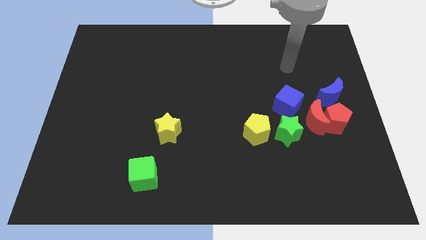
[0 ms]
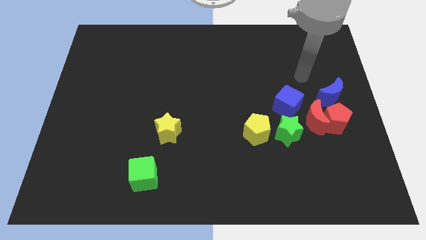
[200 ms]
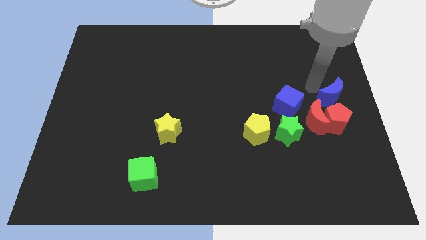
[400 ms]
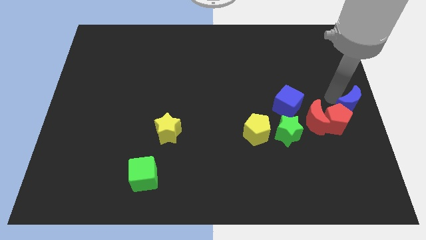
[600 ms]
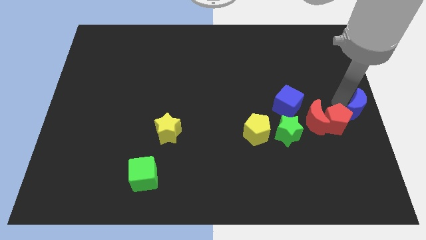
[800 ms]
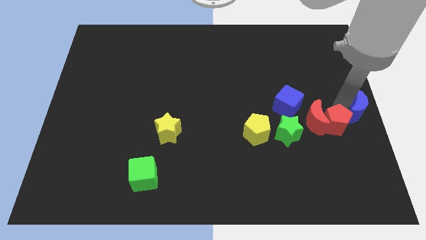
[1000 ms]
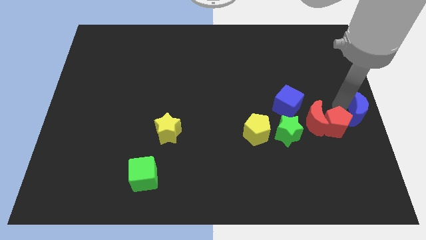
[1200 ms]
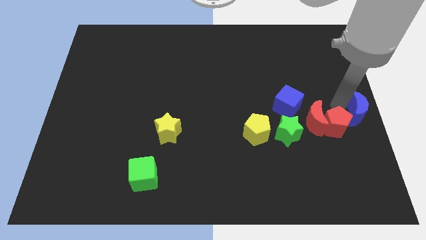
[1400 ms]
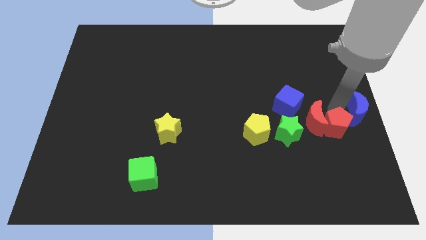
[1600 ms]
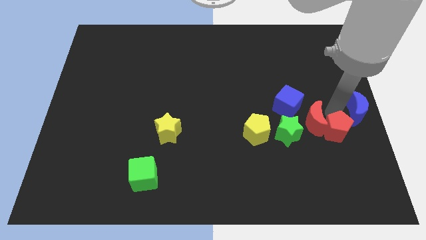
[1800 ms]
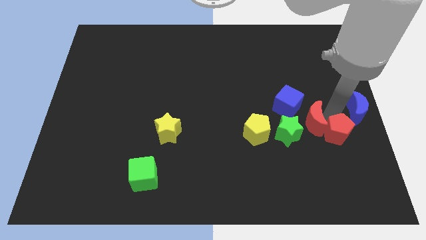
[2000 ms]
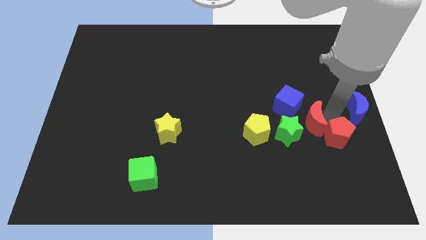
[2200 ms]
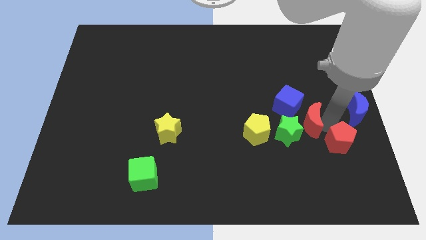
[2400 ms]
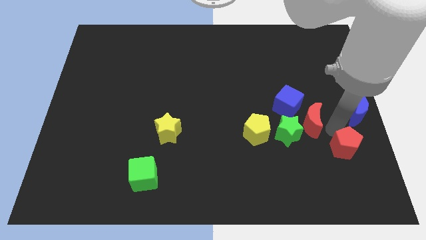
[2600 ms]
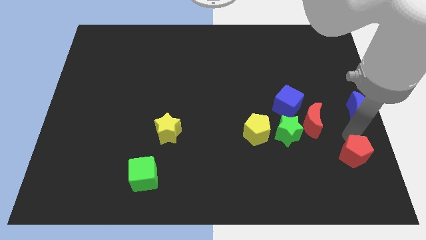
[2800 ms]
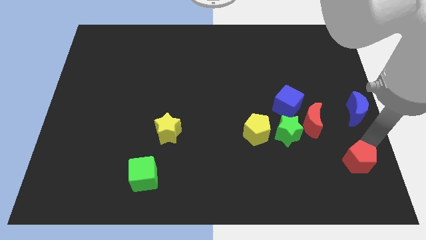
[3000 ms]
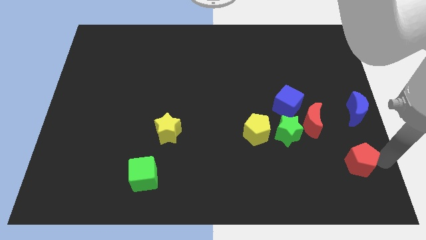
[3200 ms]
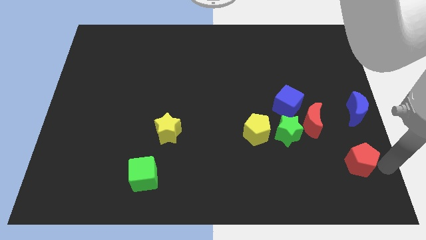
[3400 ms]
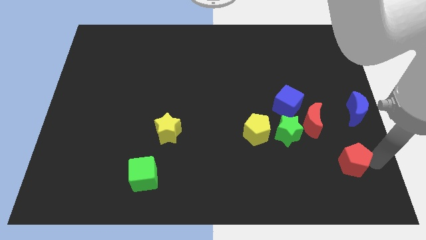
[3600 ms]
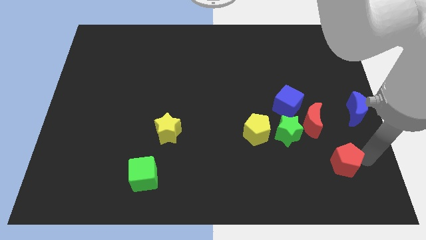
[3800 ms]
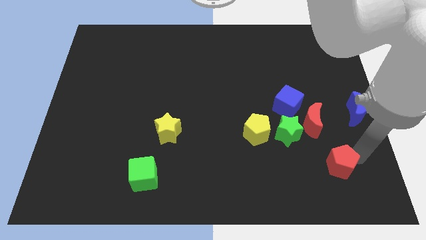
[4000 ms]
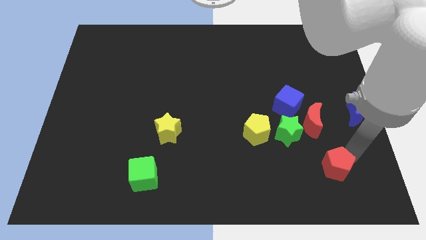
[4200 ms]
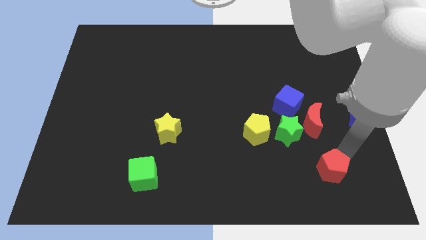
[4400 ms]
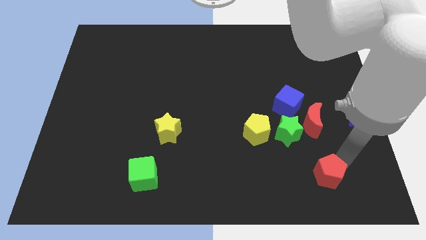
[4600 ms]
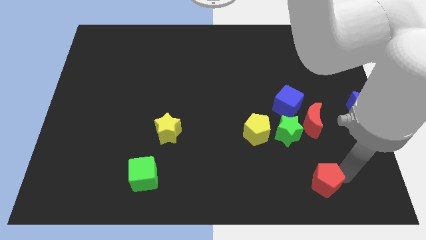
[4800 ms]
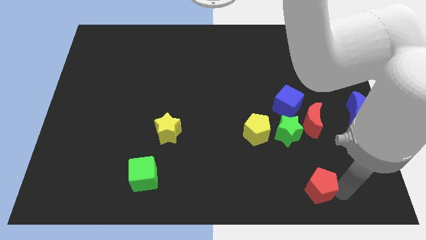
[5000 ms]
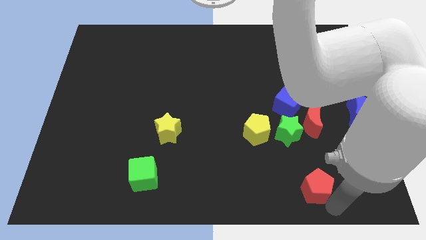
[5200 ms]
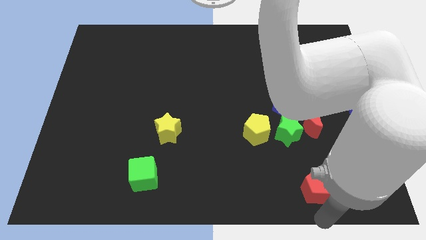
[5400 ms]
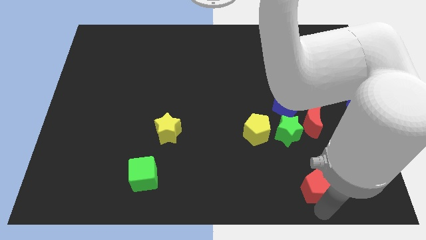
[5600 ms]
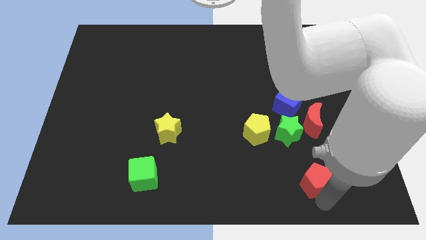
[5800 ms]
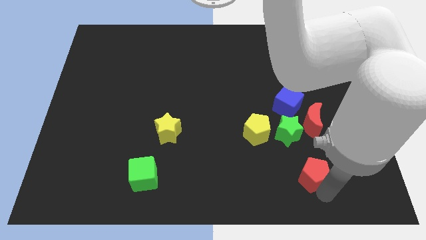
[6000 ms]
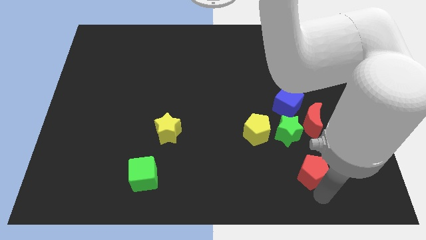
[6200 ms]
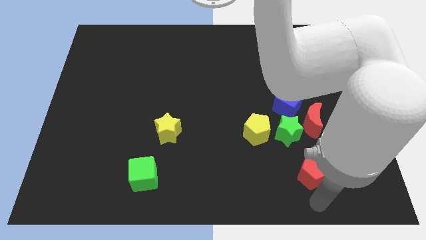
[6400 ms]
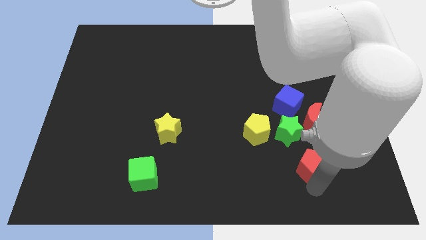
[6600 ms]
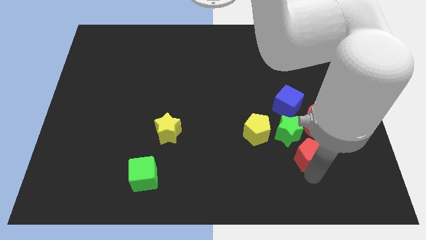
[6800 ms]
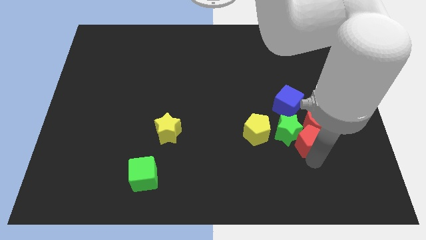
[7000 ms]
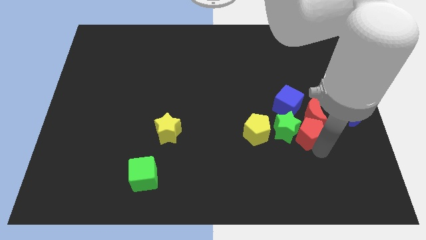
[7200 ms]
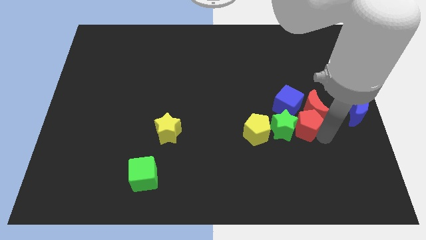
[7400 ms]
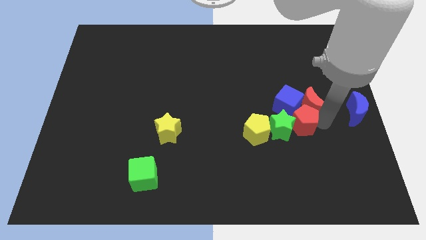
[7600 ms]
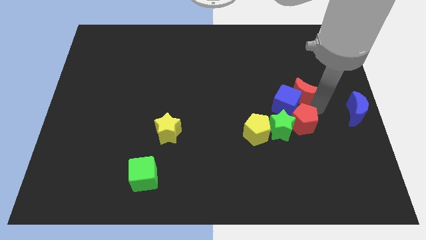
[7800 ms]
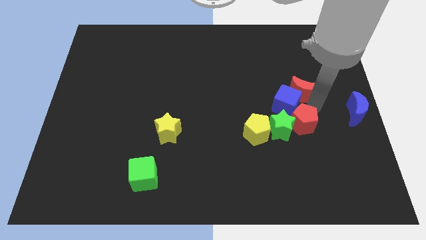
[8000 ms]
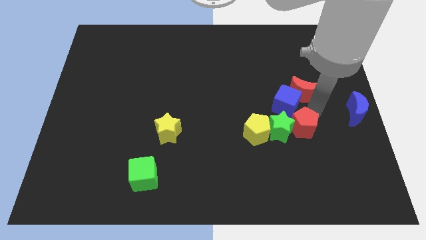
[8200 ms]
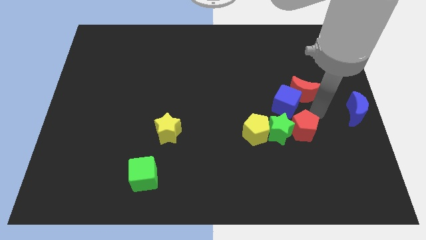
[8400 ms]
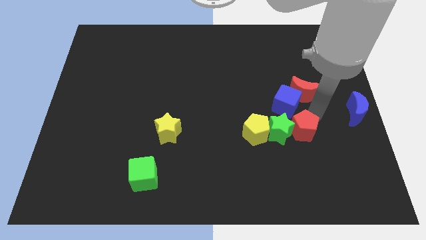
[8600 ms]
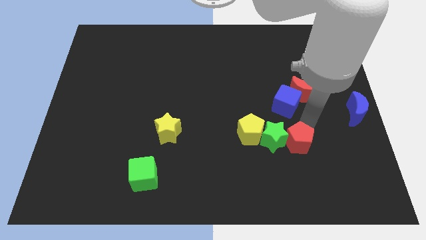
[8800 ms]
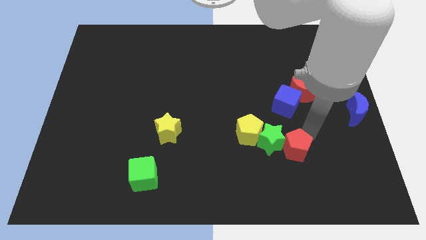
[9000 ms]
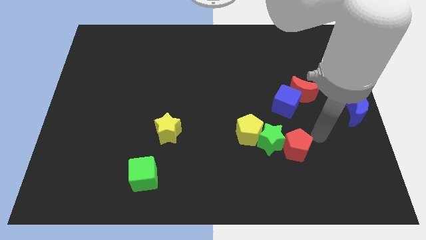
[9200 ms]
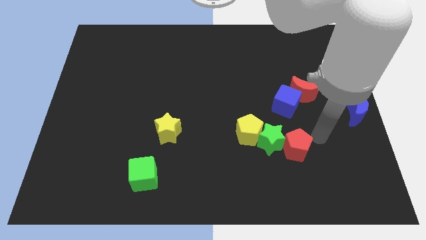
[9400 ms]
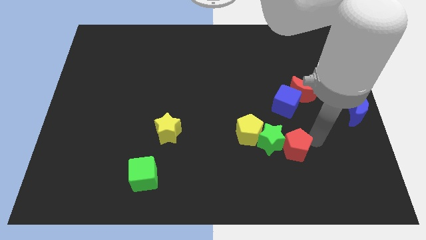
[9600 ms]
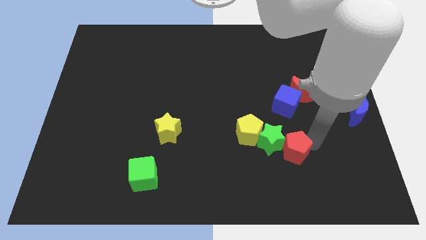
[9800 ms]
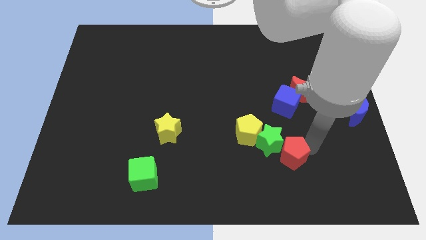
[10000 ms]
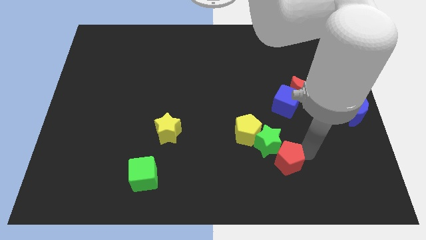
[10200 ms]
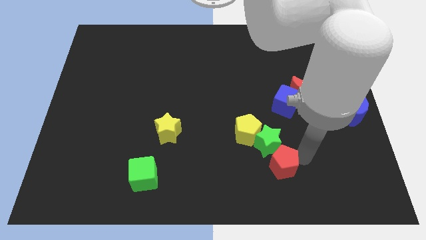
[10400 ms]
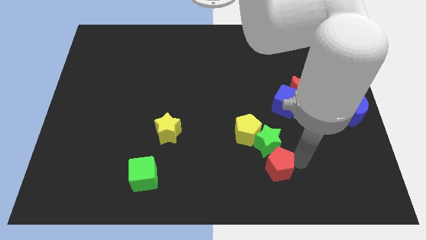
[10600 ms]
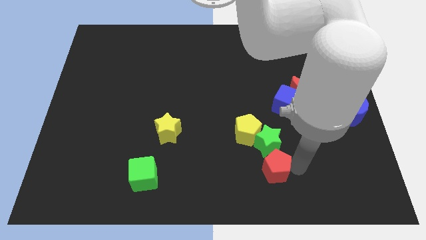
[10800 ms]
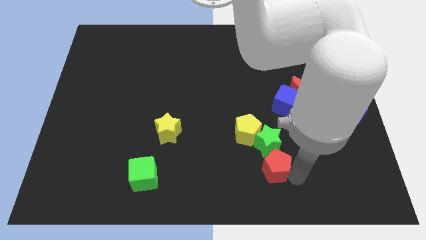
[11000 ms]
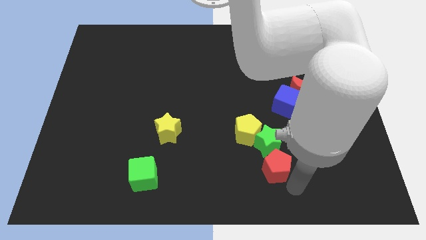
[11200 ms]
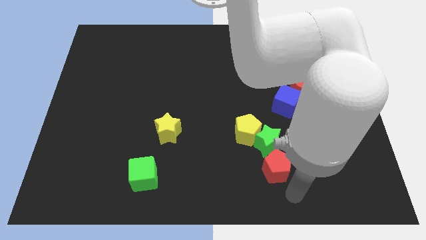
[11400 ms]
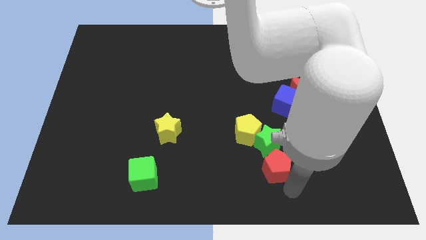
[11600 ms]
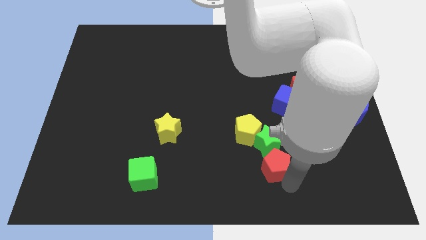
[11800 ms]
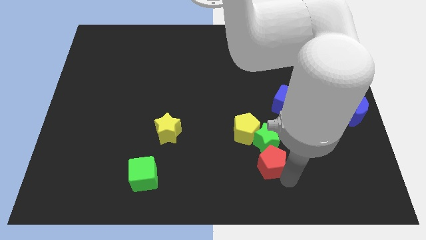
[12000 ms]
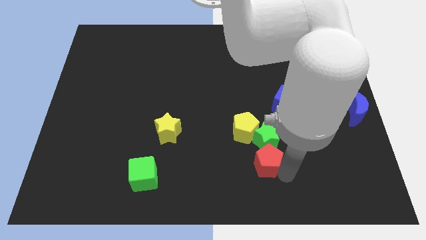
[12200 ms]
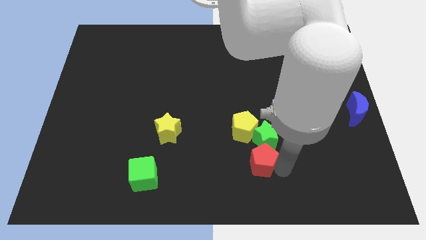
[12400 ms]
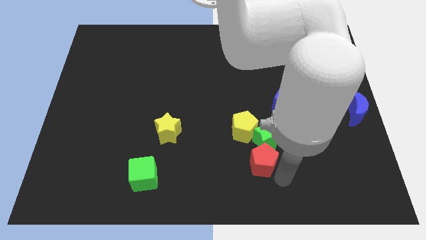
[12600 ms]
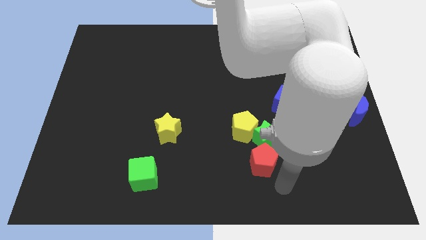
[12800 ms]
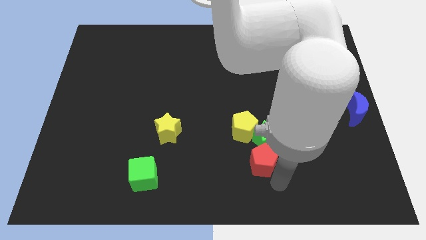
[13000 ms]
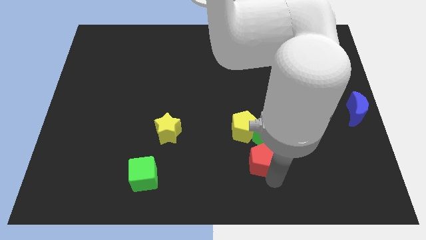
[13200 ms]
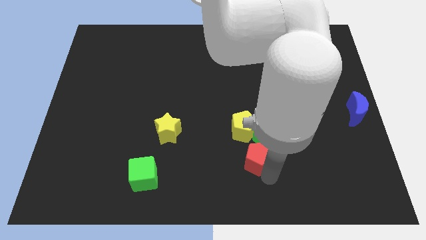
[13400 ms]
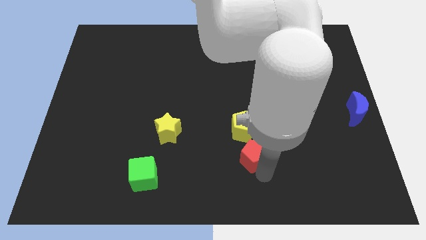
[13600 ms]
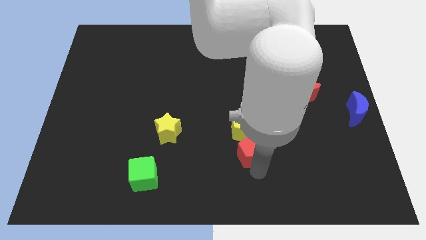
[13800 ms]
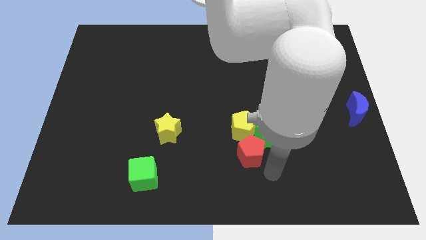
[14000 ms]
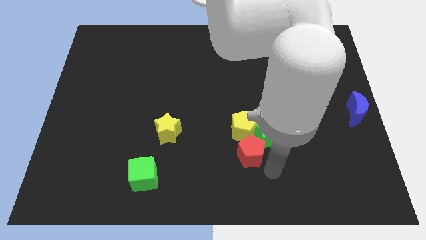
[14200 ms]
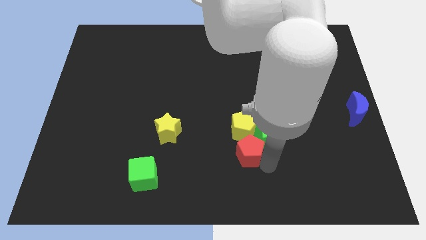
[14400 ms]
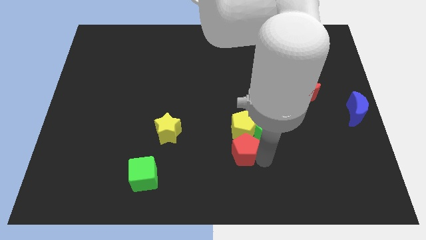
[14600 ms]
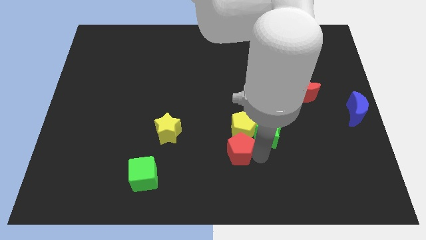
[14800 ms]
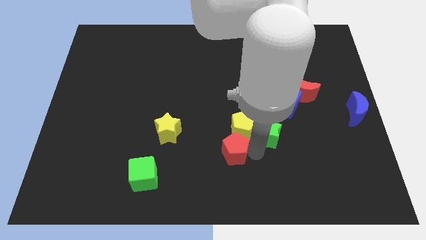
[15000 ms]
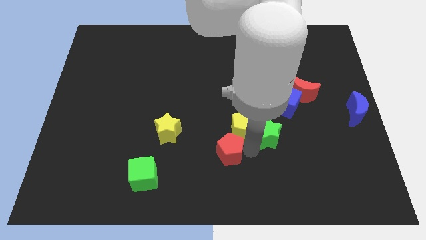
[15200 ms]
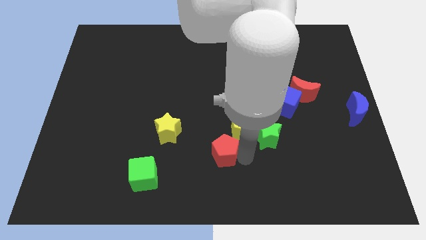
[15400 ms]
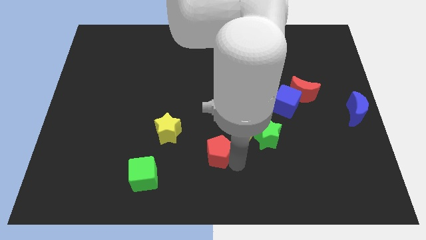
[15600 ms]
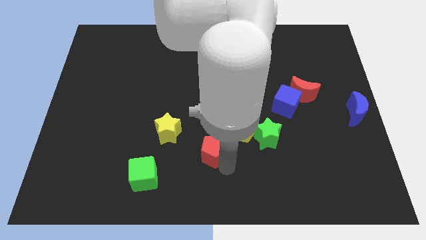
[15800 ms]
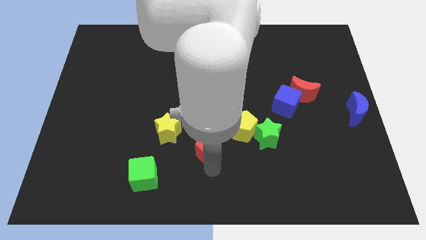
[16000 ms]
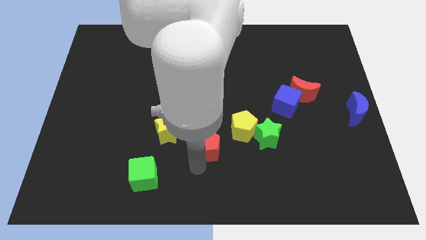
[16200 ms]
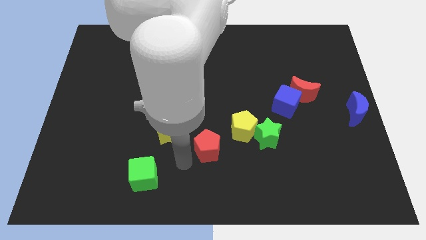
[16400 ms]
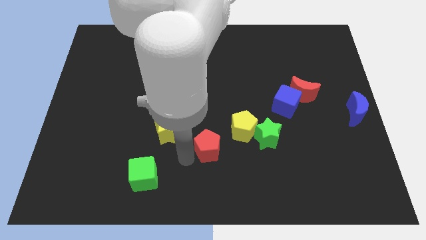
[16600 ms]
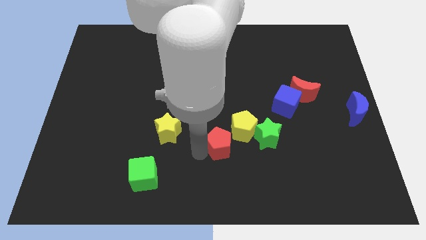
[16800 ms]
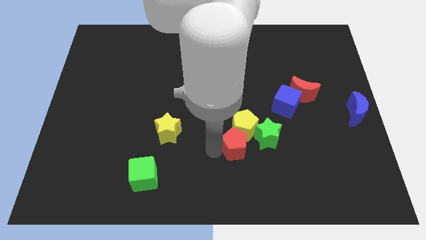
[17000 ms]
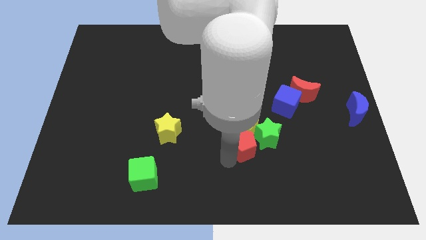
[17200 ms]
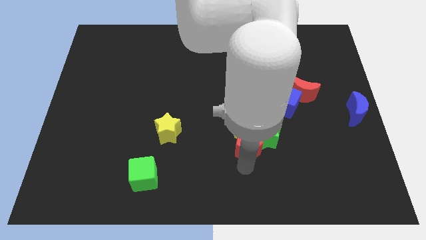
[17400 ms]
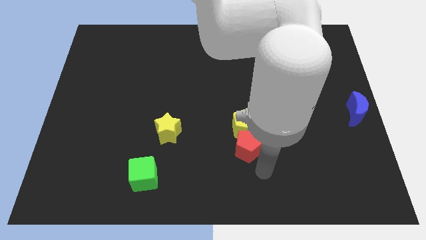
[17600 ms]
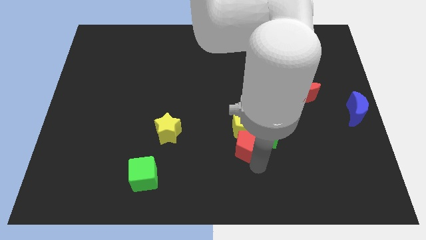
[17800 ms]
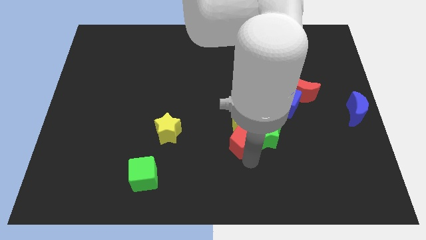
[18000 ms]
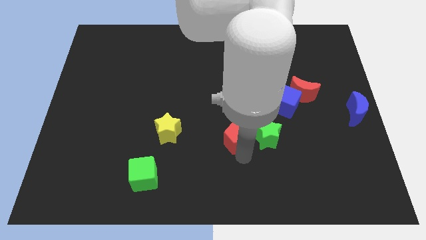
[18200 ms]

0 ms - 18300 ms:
slide the red pentagon to the middle
